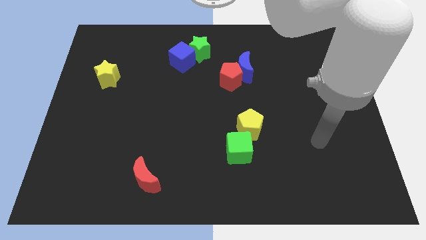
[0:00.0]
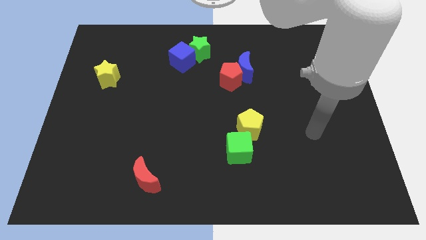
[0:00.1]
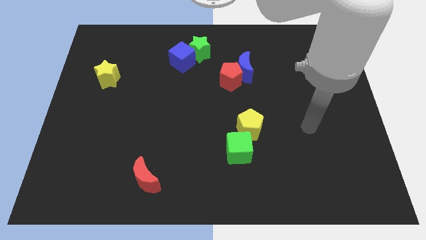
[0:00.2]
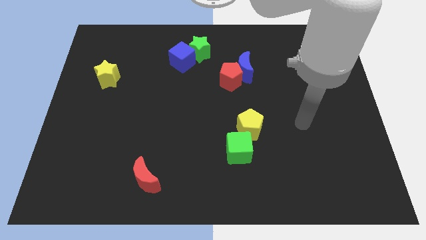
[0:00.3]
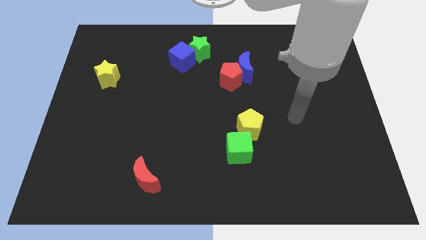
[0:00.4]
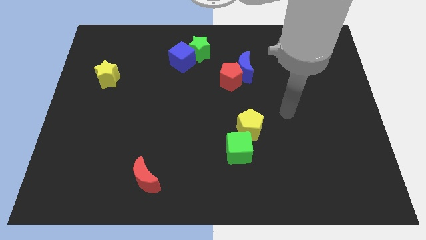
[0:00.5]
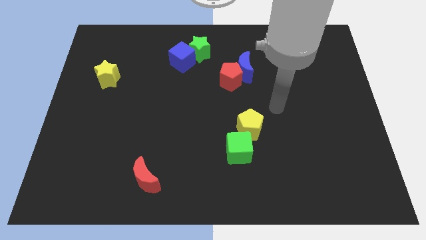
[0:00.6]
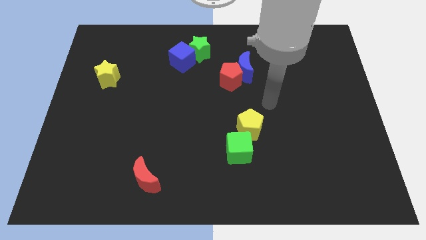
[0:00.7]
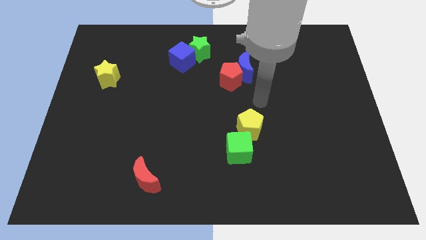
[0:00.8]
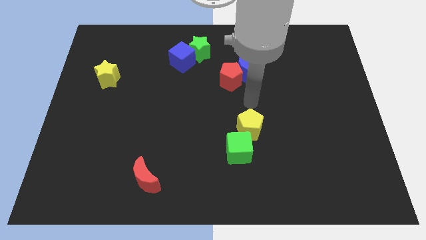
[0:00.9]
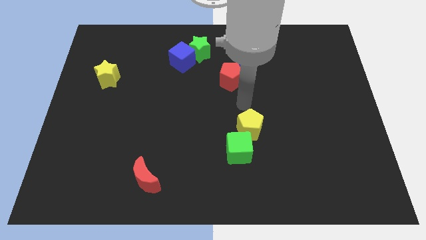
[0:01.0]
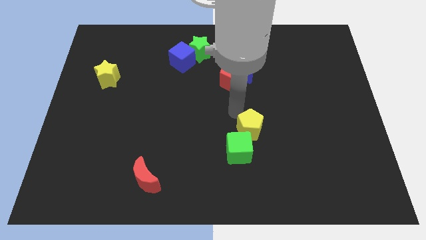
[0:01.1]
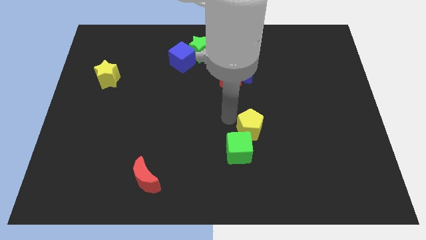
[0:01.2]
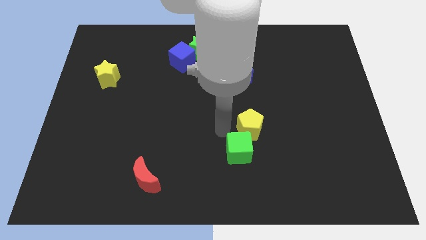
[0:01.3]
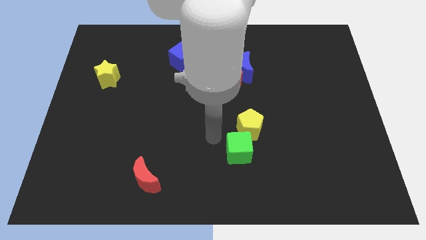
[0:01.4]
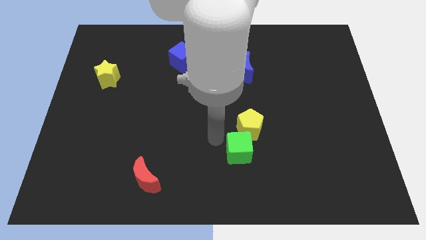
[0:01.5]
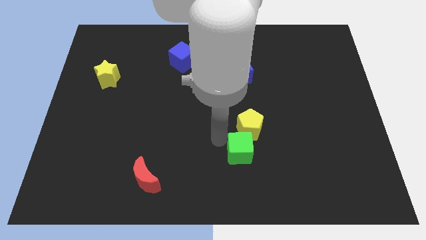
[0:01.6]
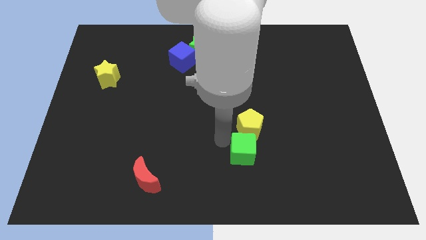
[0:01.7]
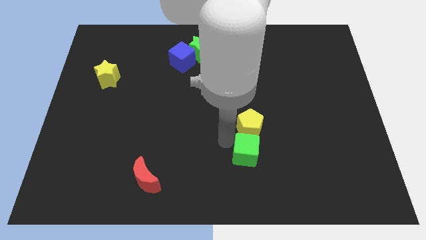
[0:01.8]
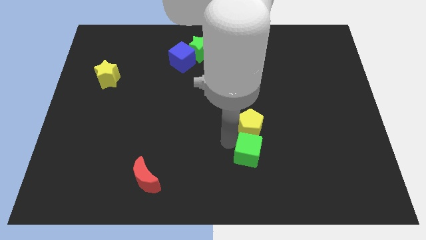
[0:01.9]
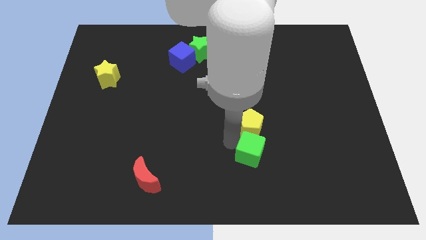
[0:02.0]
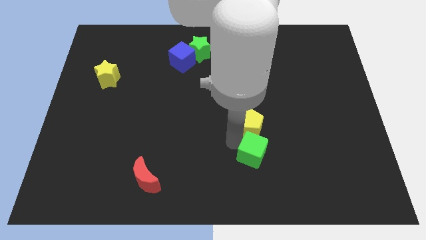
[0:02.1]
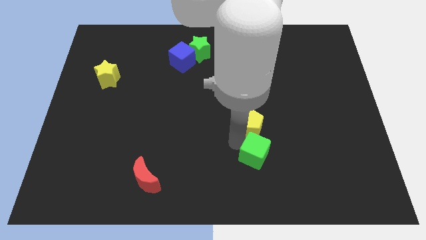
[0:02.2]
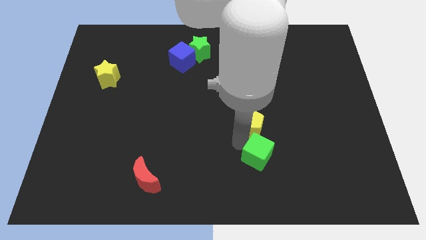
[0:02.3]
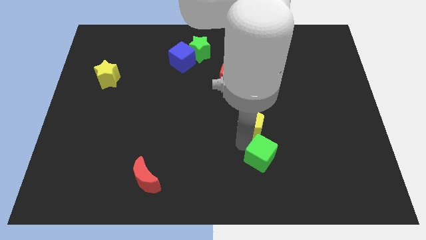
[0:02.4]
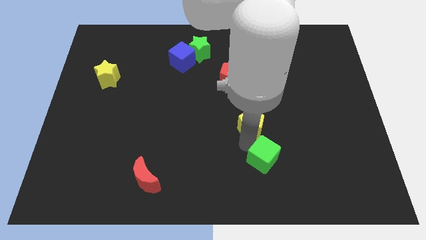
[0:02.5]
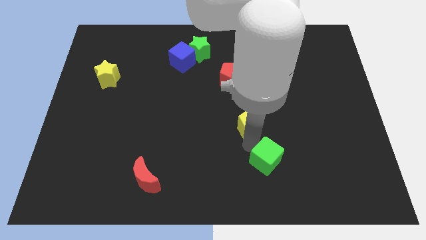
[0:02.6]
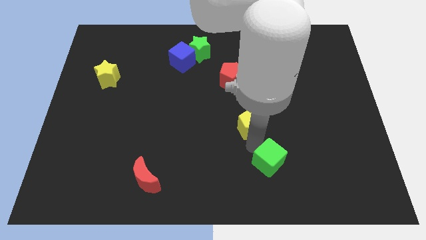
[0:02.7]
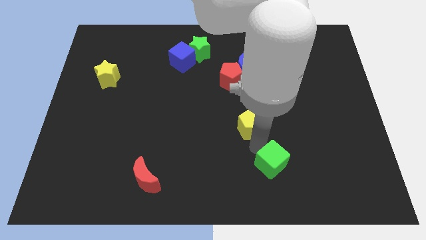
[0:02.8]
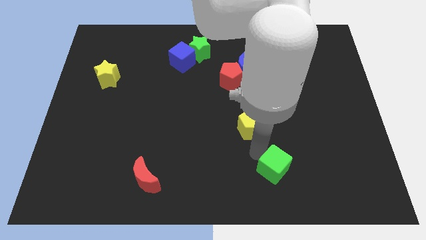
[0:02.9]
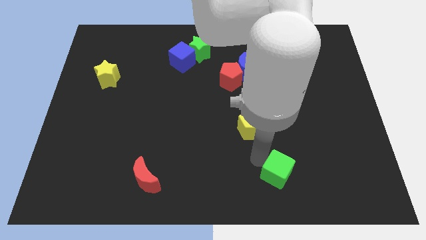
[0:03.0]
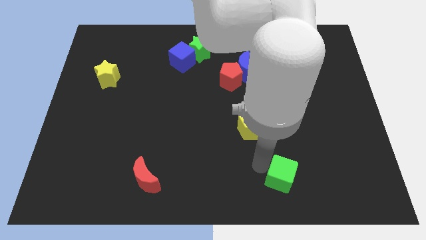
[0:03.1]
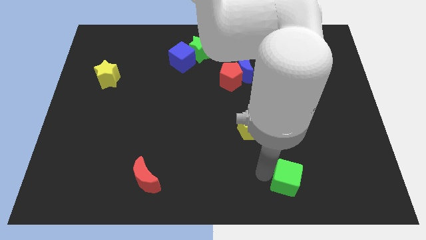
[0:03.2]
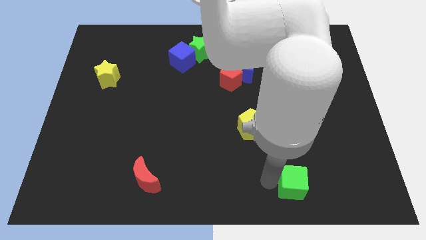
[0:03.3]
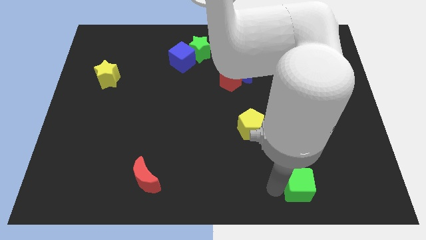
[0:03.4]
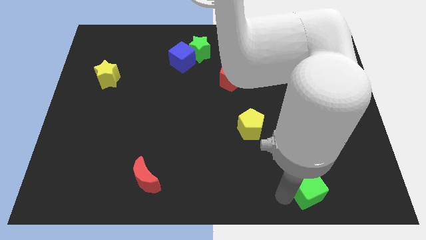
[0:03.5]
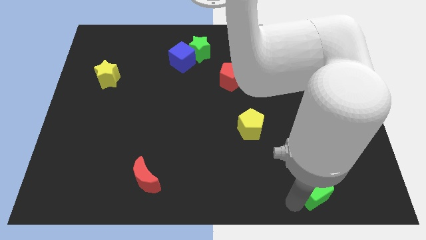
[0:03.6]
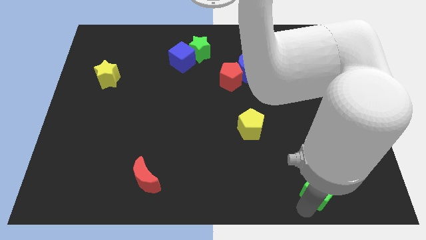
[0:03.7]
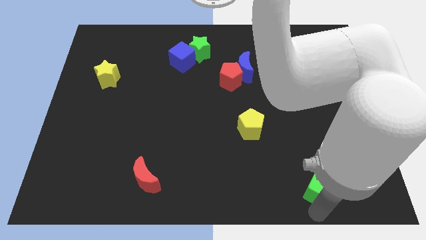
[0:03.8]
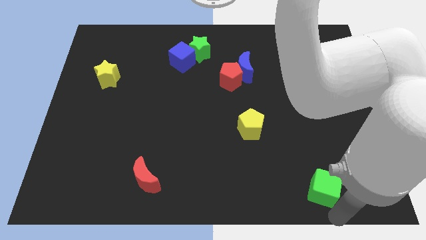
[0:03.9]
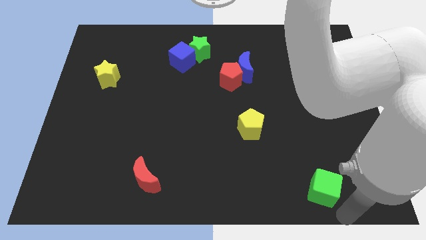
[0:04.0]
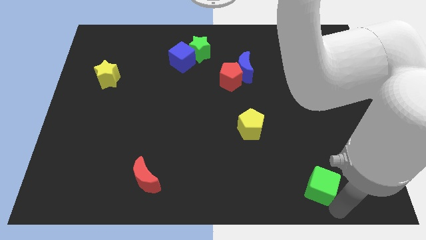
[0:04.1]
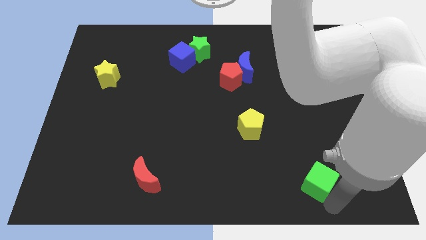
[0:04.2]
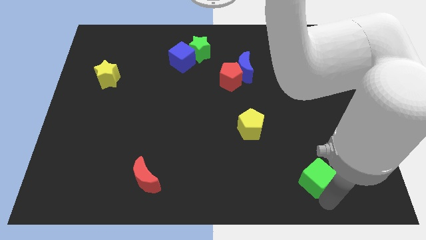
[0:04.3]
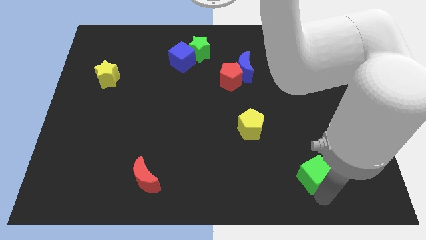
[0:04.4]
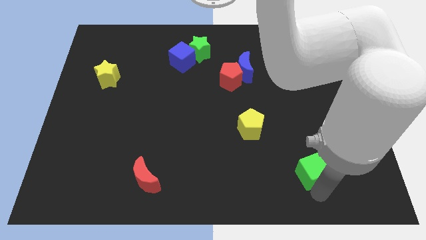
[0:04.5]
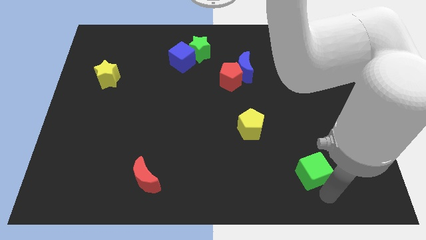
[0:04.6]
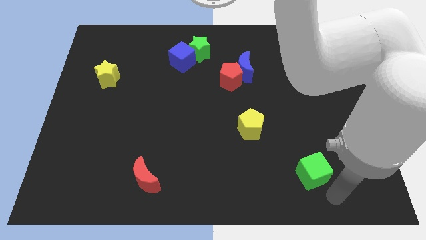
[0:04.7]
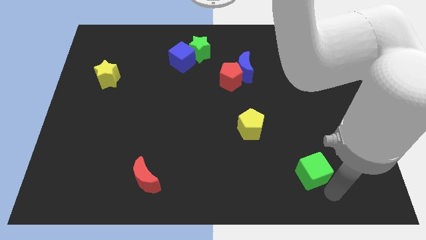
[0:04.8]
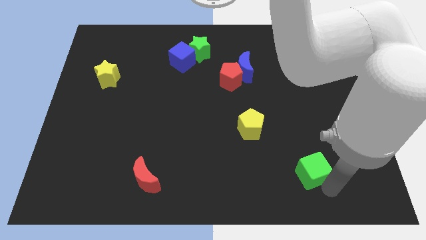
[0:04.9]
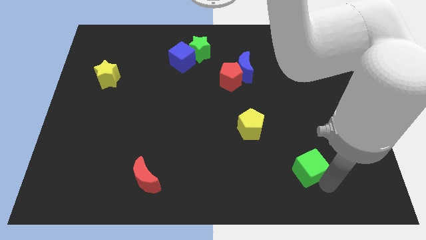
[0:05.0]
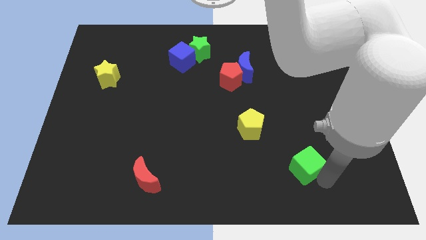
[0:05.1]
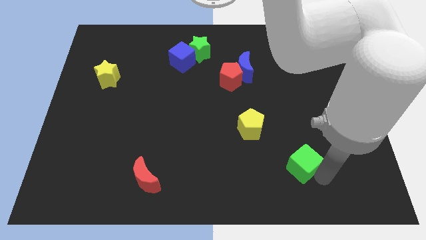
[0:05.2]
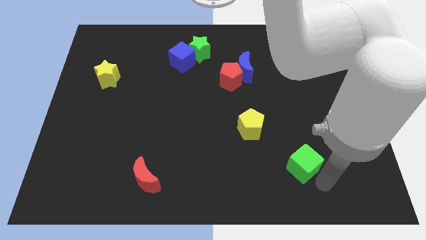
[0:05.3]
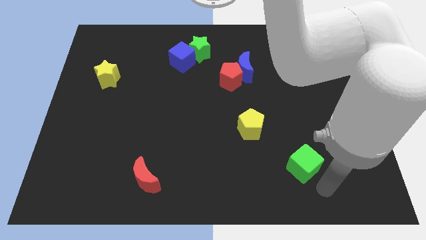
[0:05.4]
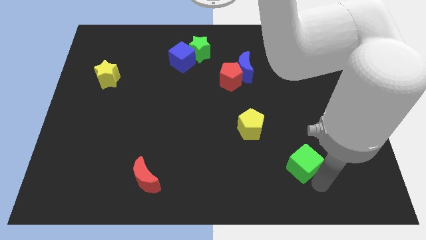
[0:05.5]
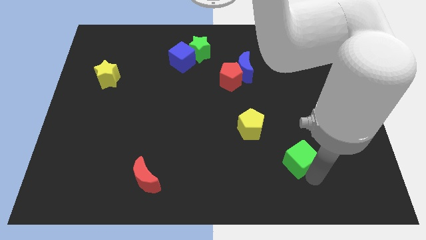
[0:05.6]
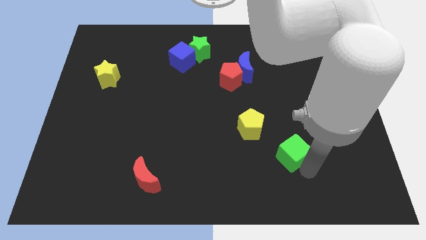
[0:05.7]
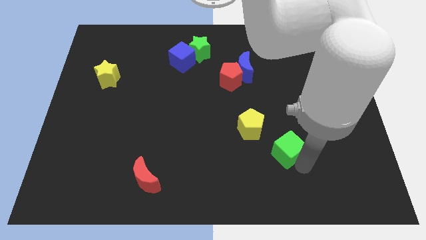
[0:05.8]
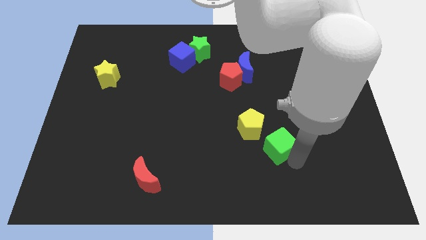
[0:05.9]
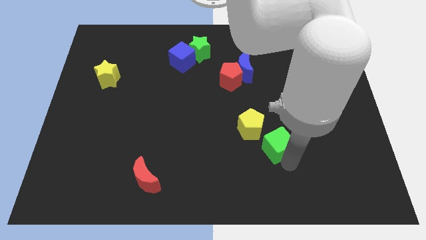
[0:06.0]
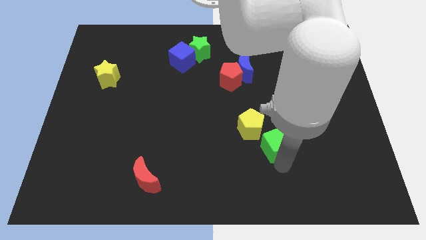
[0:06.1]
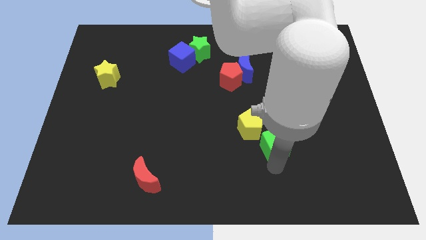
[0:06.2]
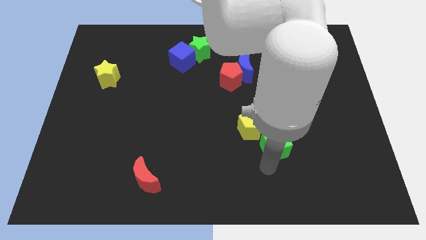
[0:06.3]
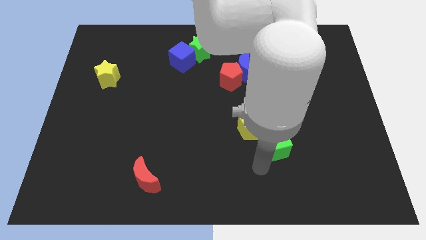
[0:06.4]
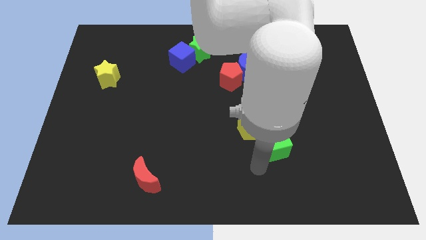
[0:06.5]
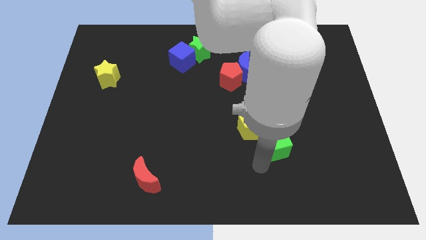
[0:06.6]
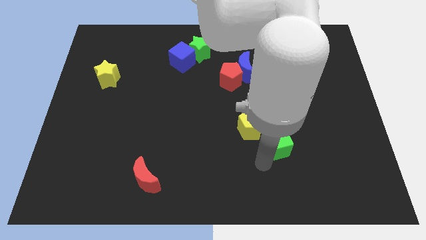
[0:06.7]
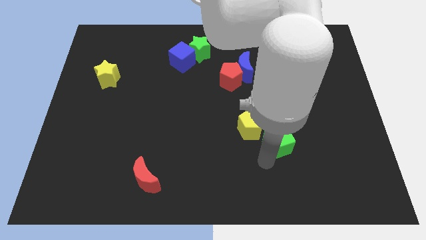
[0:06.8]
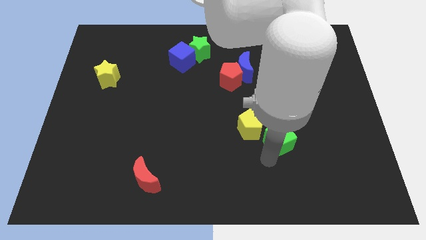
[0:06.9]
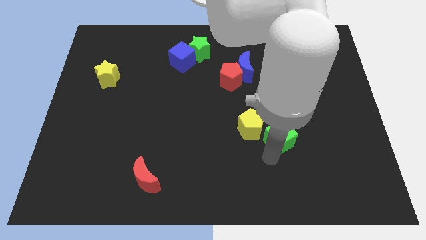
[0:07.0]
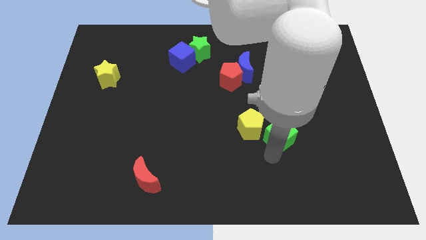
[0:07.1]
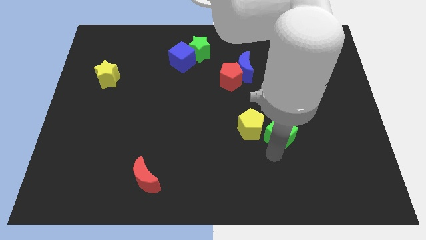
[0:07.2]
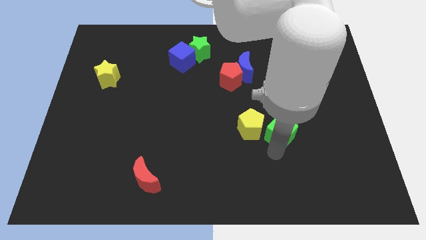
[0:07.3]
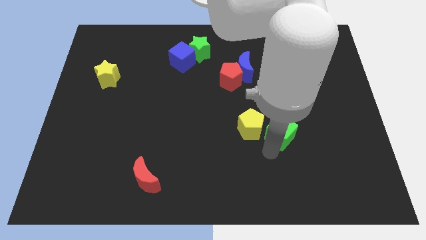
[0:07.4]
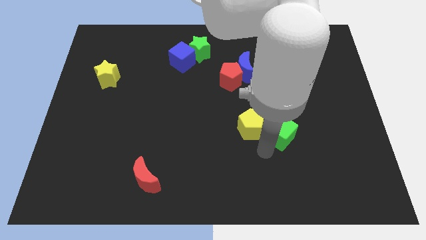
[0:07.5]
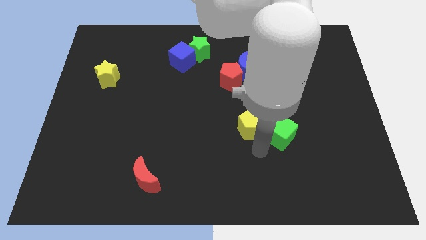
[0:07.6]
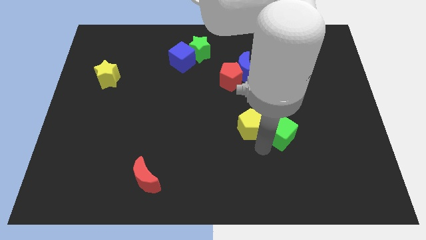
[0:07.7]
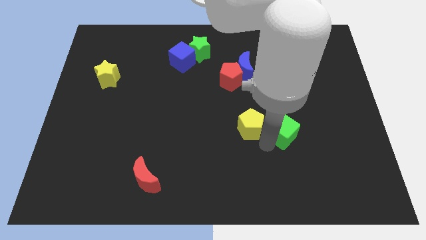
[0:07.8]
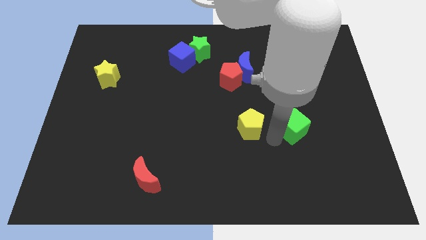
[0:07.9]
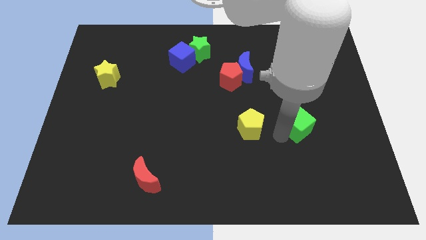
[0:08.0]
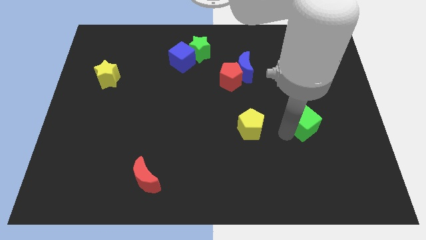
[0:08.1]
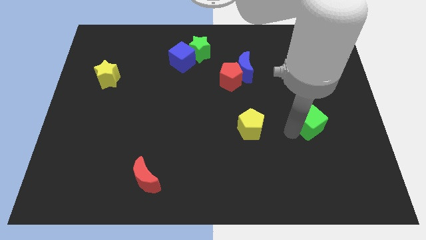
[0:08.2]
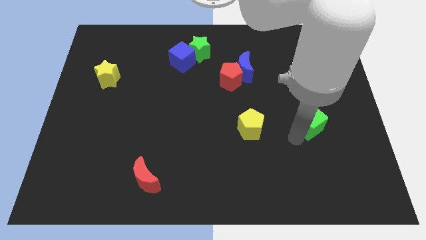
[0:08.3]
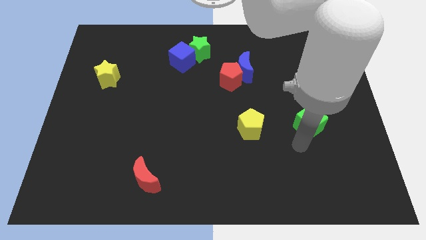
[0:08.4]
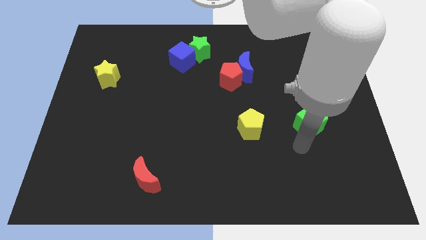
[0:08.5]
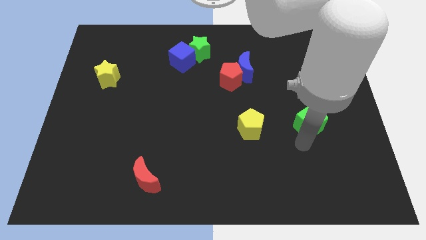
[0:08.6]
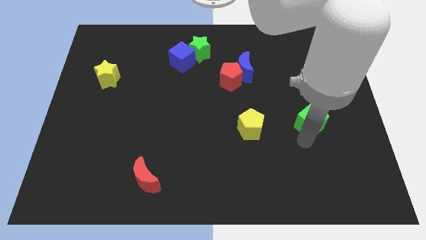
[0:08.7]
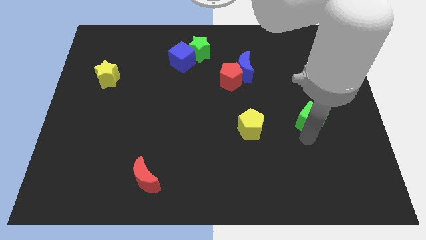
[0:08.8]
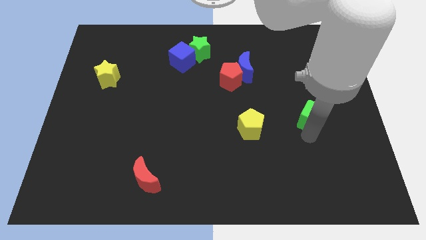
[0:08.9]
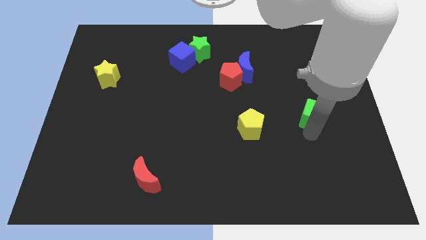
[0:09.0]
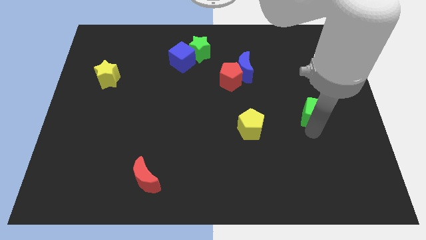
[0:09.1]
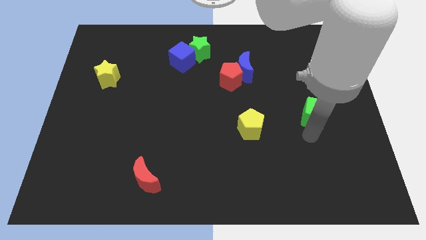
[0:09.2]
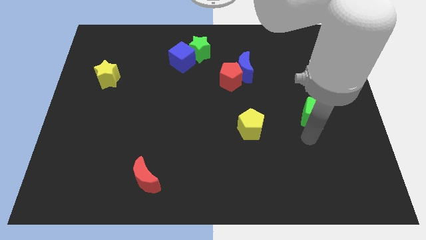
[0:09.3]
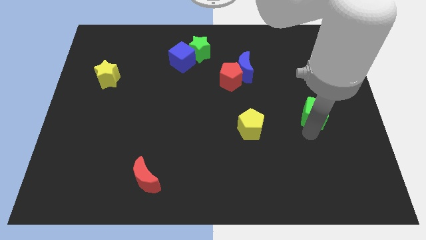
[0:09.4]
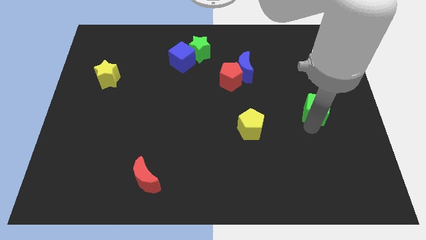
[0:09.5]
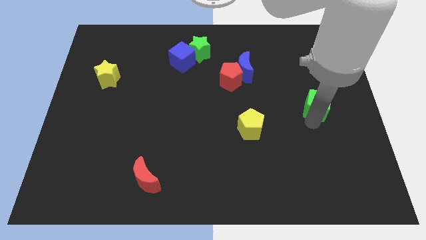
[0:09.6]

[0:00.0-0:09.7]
push the green cube diagonally up and right
